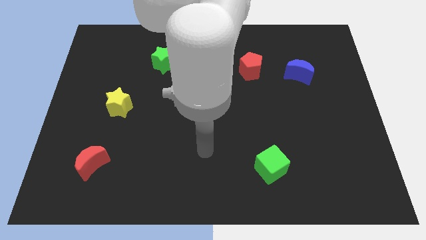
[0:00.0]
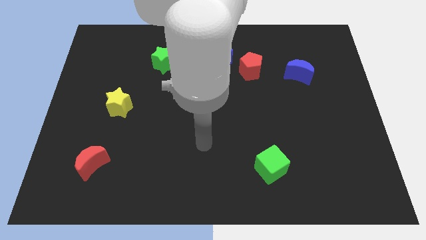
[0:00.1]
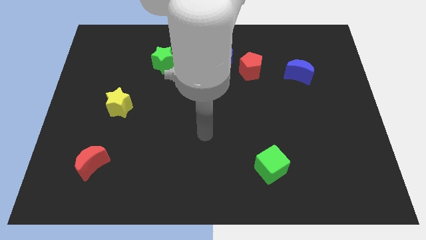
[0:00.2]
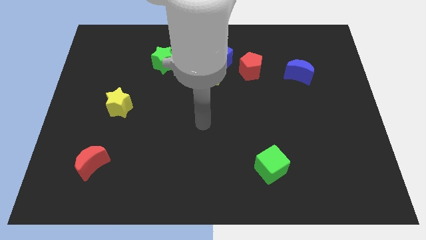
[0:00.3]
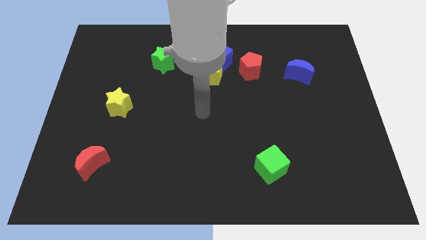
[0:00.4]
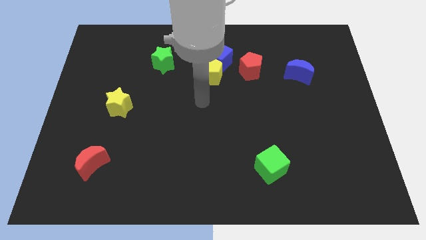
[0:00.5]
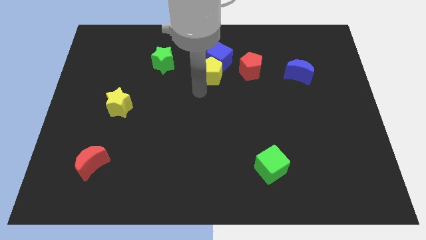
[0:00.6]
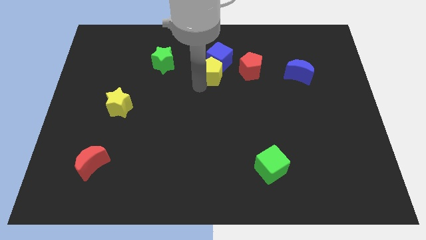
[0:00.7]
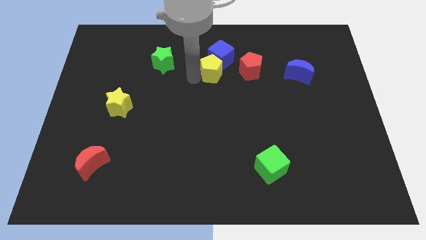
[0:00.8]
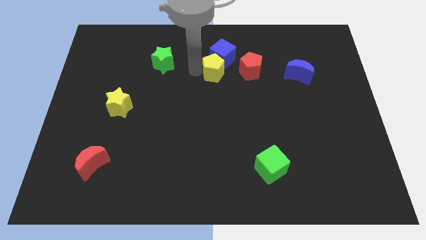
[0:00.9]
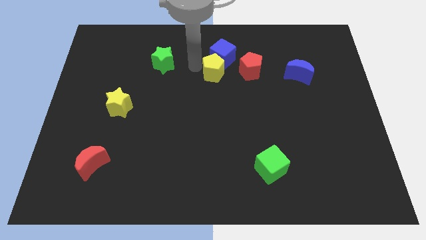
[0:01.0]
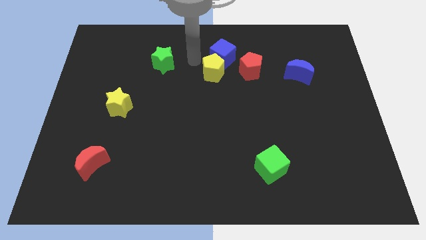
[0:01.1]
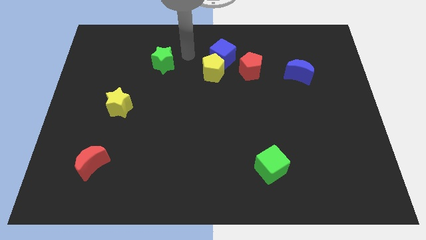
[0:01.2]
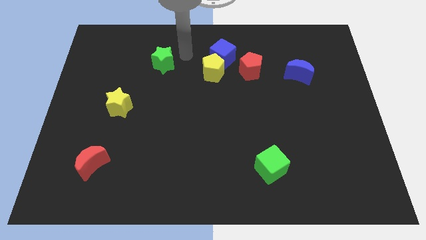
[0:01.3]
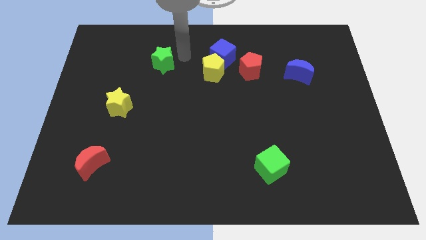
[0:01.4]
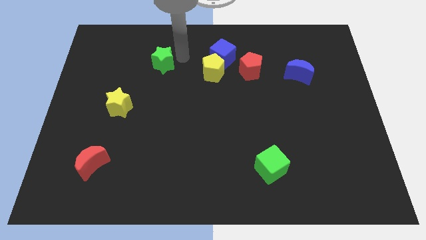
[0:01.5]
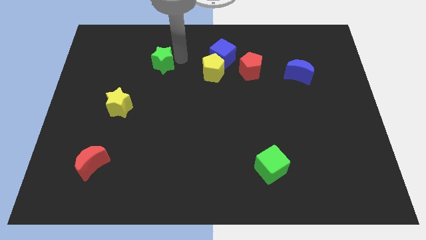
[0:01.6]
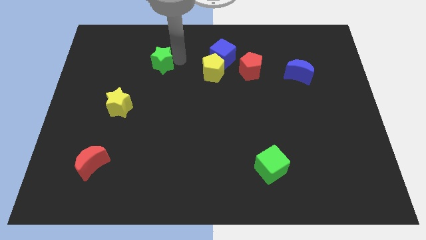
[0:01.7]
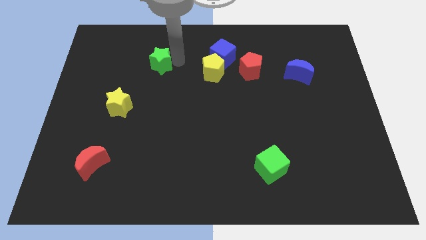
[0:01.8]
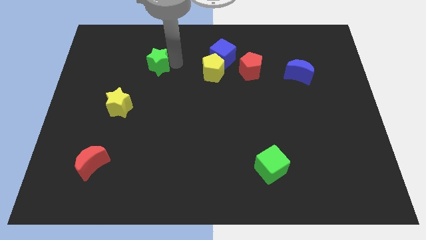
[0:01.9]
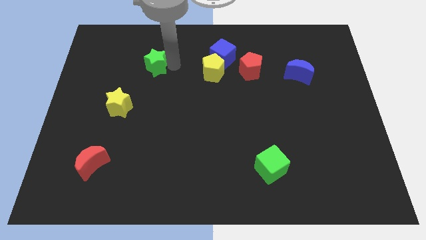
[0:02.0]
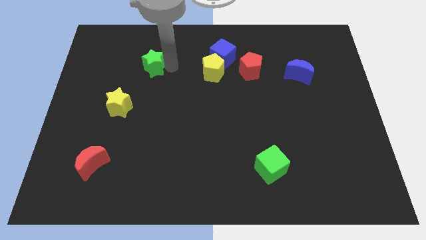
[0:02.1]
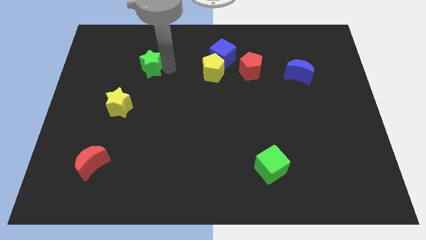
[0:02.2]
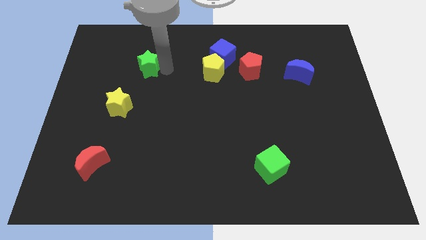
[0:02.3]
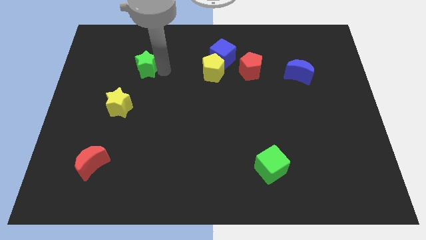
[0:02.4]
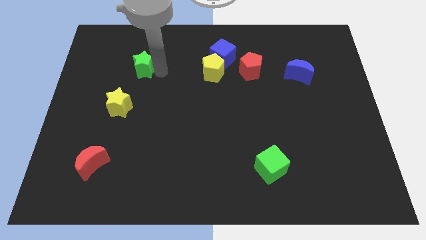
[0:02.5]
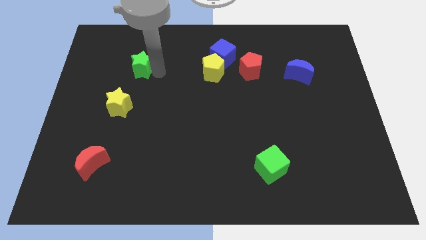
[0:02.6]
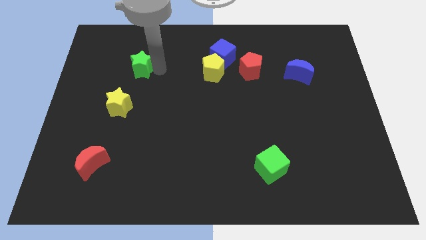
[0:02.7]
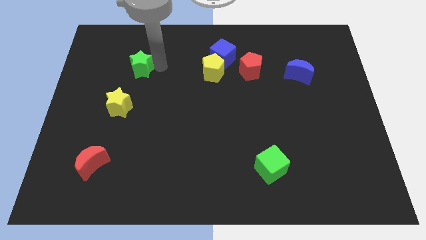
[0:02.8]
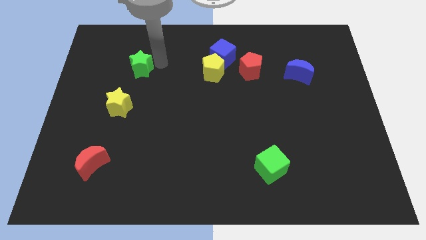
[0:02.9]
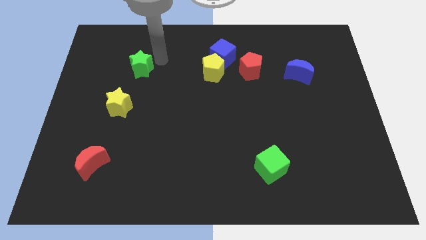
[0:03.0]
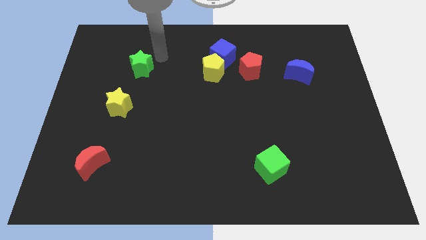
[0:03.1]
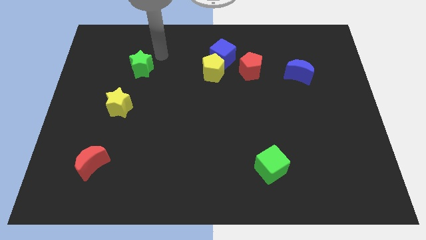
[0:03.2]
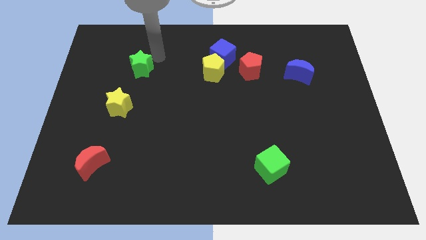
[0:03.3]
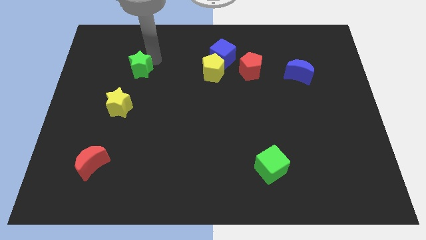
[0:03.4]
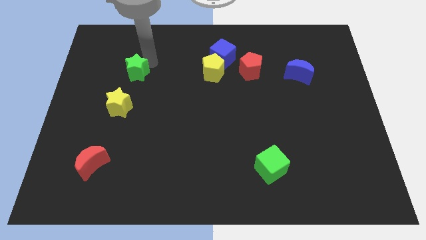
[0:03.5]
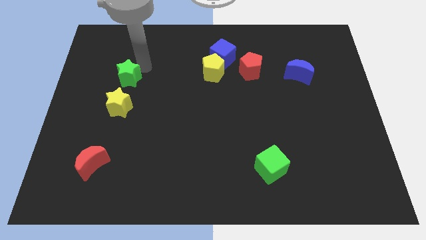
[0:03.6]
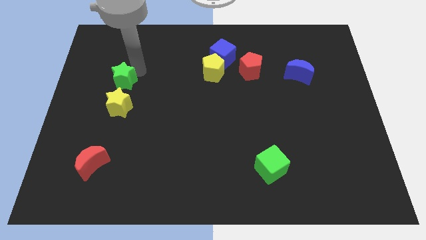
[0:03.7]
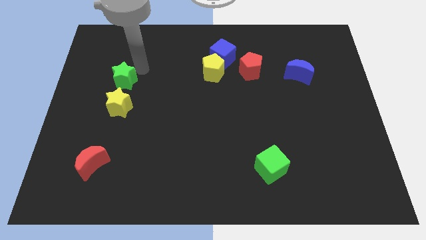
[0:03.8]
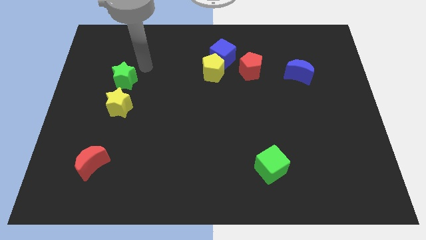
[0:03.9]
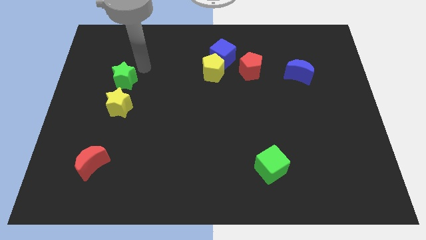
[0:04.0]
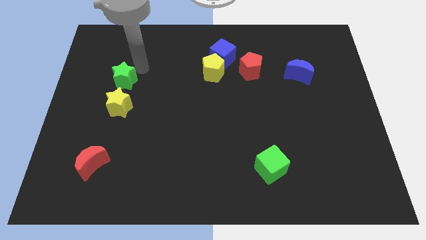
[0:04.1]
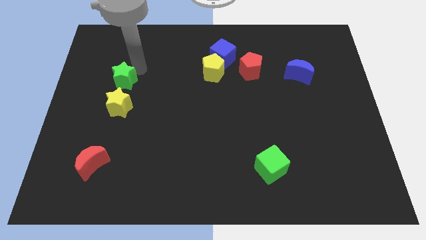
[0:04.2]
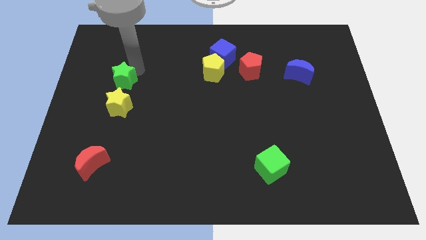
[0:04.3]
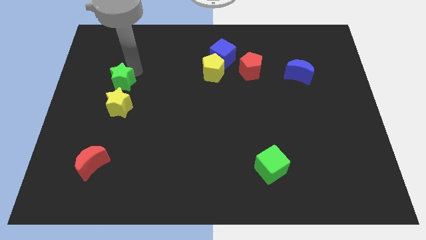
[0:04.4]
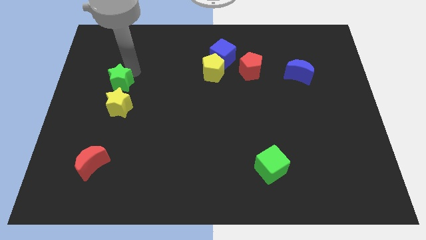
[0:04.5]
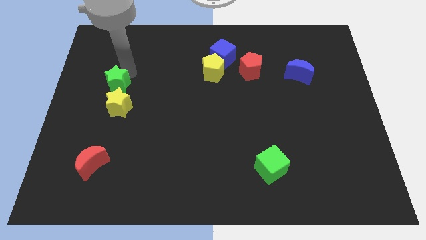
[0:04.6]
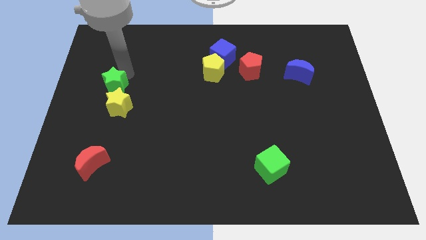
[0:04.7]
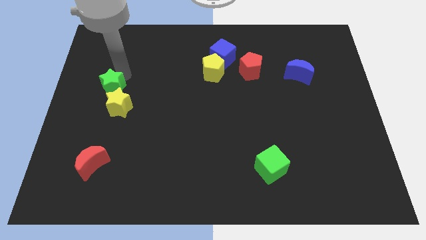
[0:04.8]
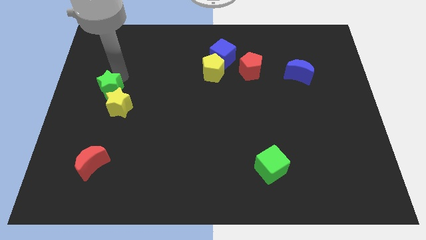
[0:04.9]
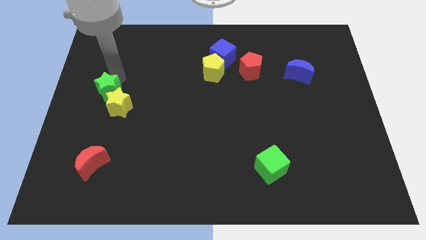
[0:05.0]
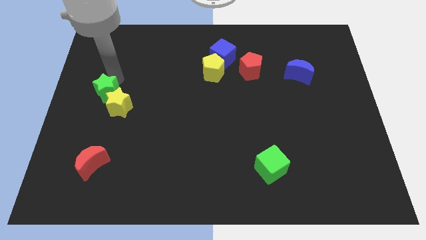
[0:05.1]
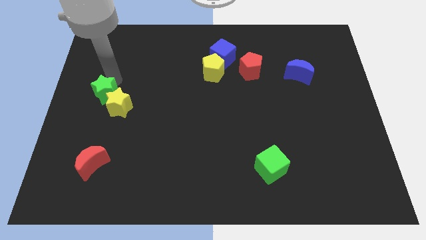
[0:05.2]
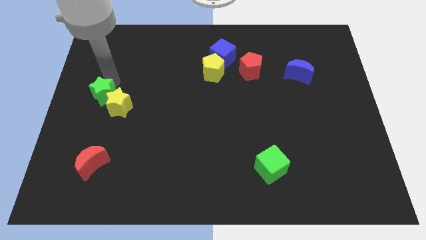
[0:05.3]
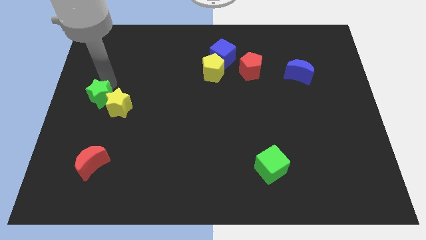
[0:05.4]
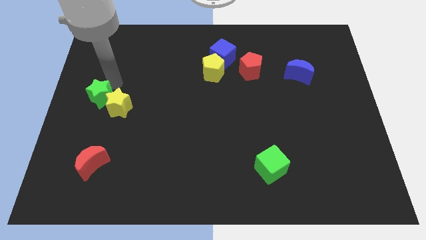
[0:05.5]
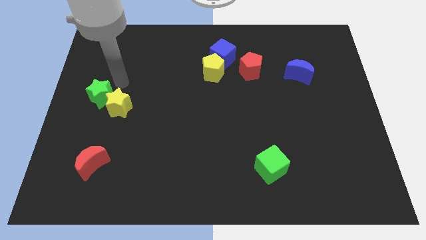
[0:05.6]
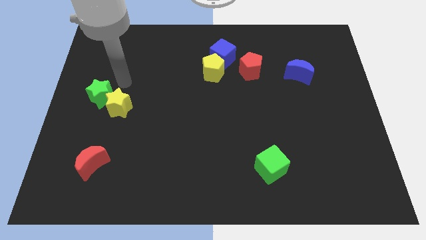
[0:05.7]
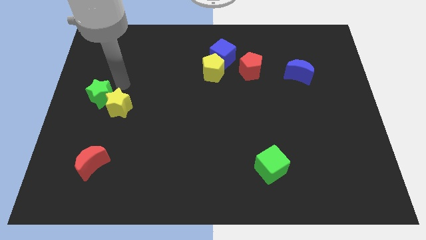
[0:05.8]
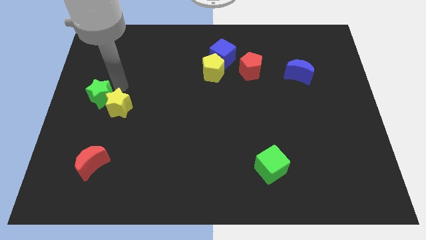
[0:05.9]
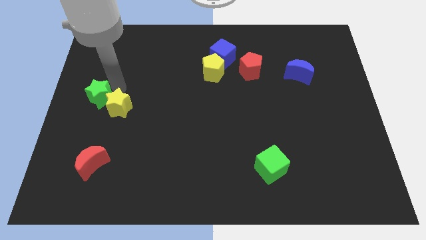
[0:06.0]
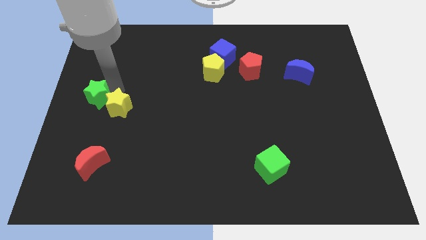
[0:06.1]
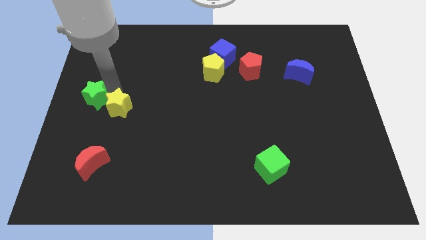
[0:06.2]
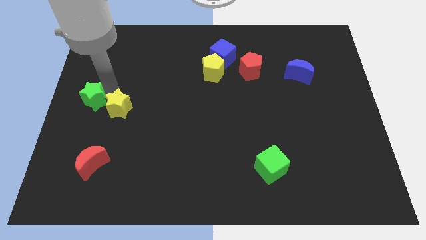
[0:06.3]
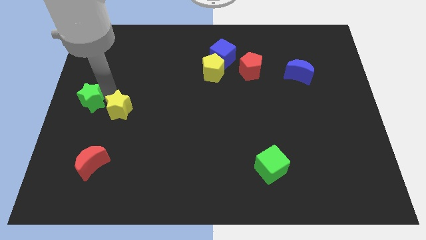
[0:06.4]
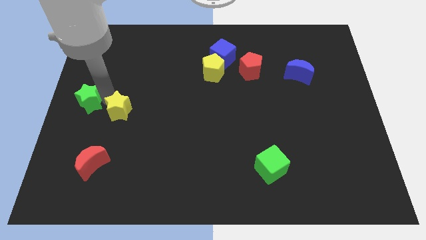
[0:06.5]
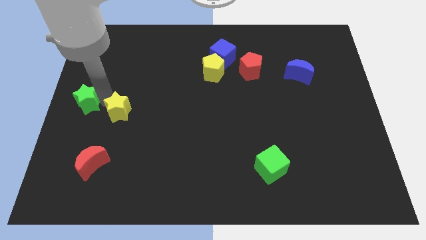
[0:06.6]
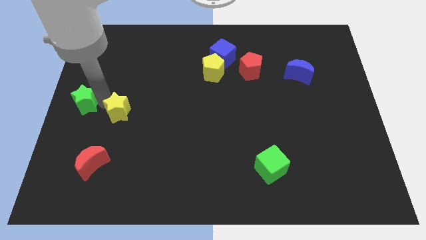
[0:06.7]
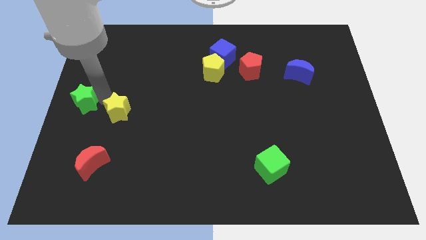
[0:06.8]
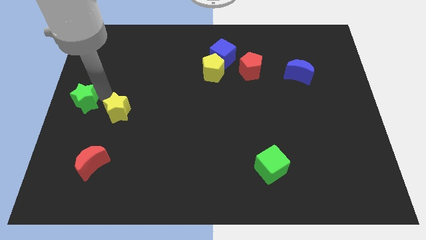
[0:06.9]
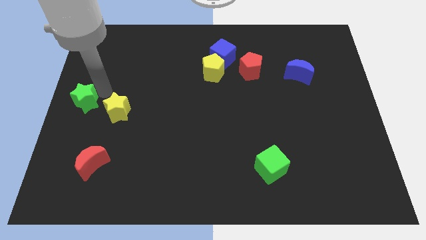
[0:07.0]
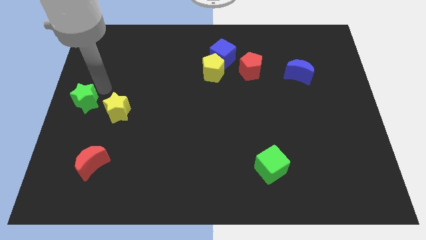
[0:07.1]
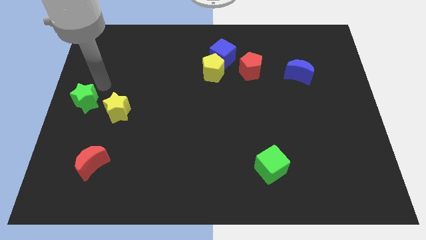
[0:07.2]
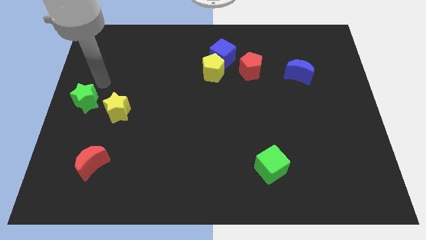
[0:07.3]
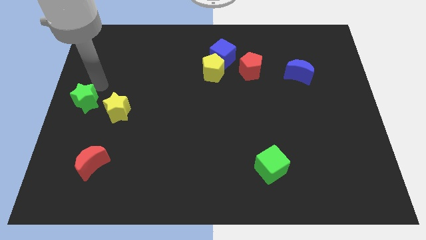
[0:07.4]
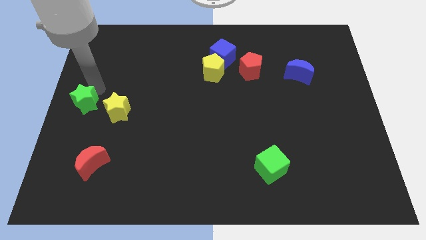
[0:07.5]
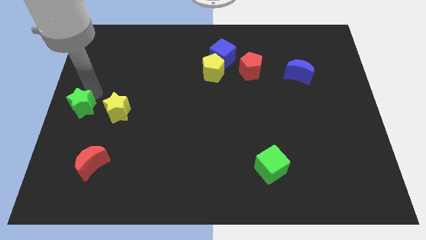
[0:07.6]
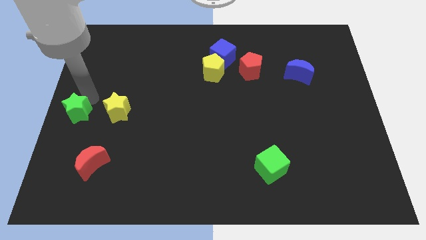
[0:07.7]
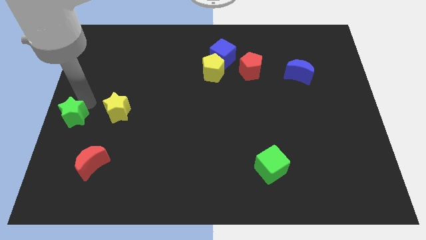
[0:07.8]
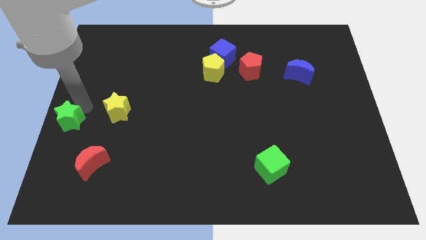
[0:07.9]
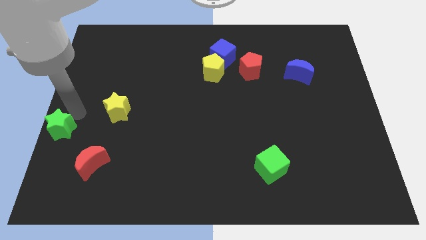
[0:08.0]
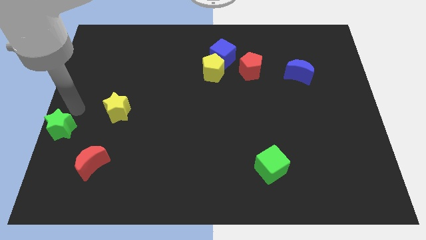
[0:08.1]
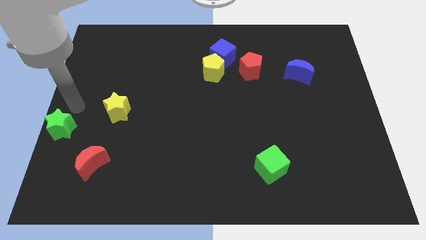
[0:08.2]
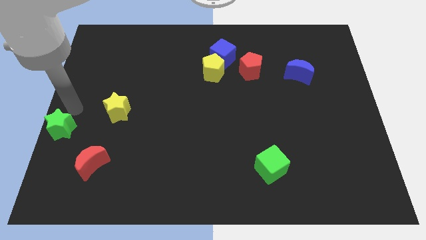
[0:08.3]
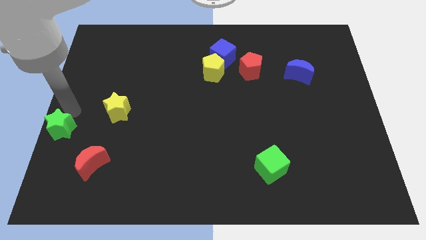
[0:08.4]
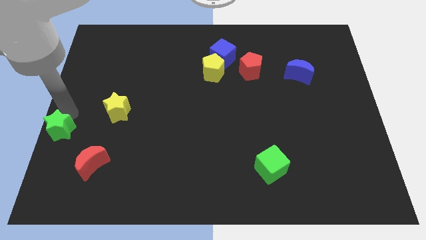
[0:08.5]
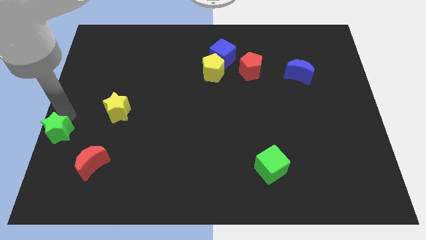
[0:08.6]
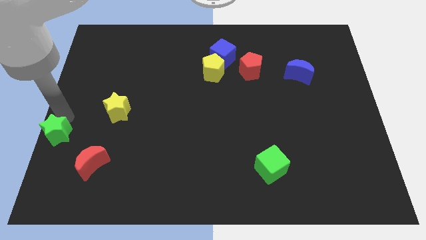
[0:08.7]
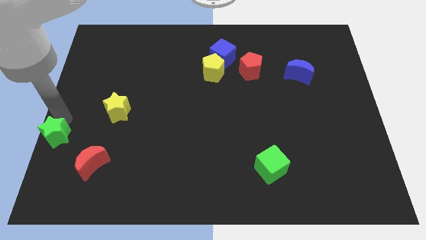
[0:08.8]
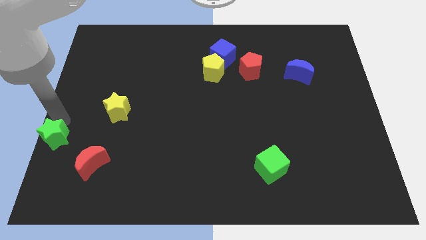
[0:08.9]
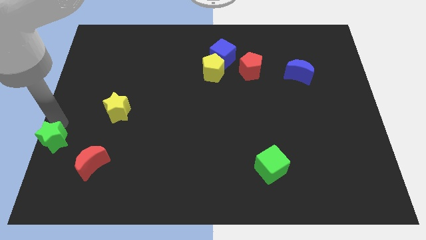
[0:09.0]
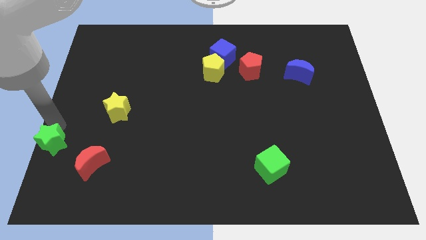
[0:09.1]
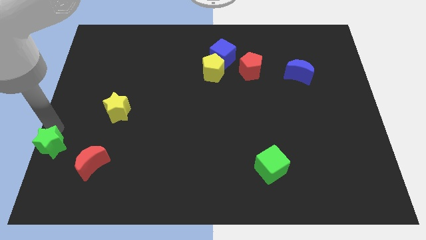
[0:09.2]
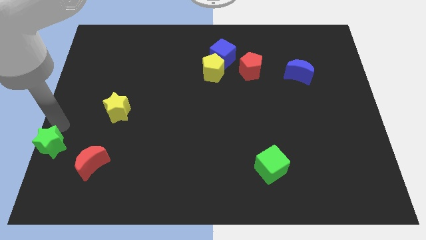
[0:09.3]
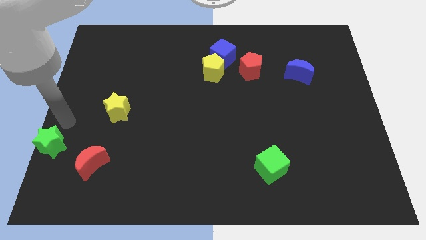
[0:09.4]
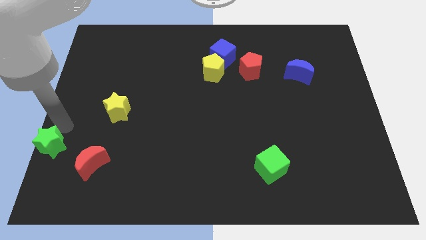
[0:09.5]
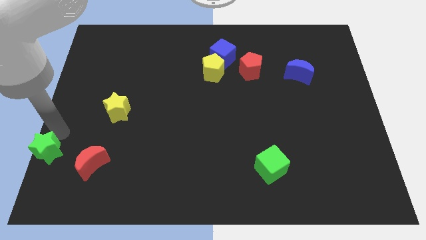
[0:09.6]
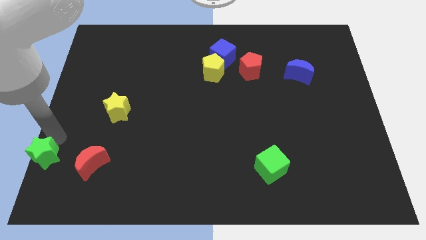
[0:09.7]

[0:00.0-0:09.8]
move the green star to the lower left corner
